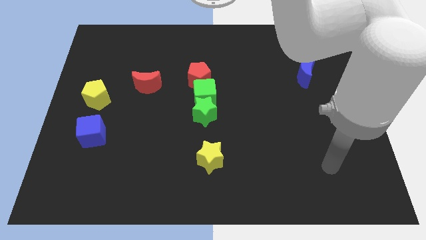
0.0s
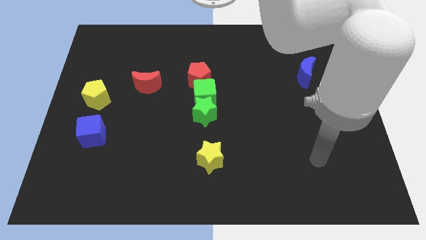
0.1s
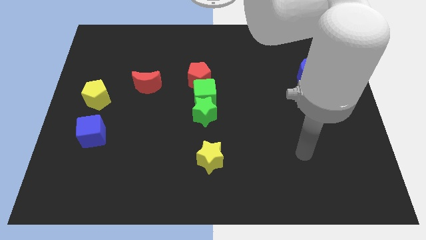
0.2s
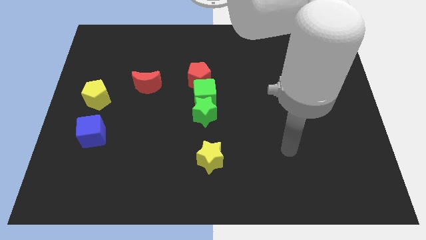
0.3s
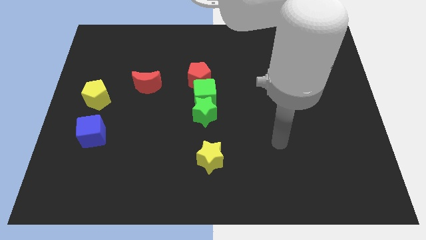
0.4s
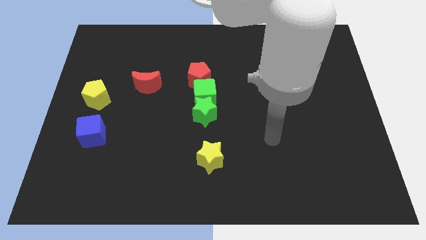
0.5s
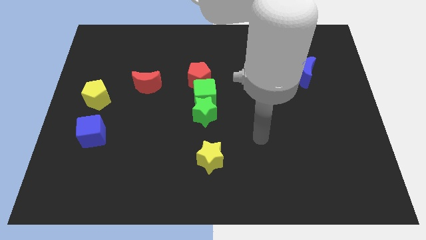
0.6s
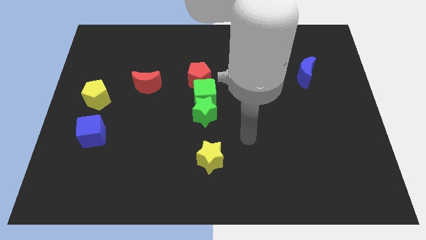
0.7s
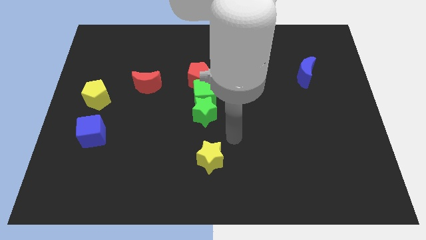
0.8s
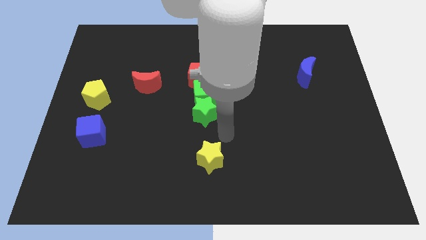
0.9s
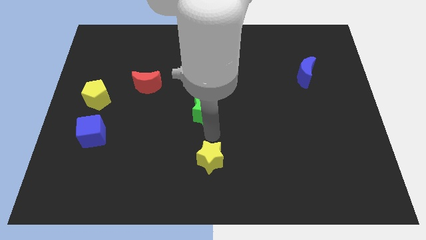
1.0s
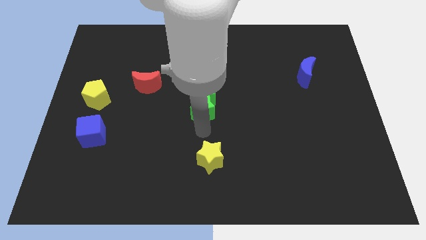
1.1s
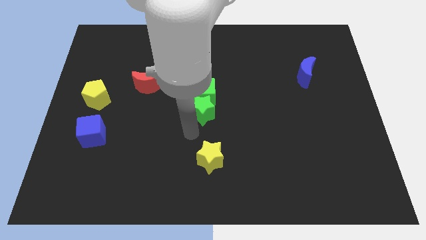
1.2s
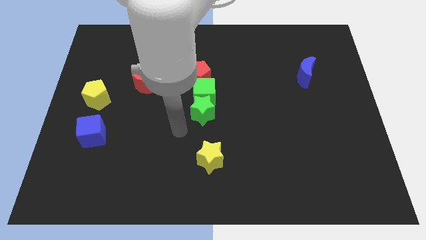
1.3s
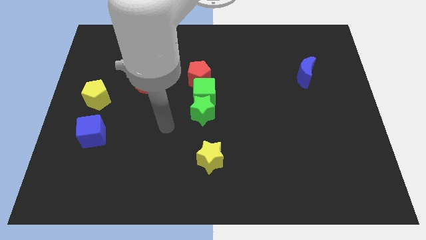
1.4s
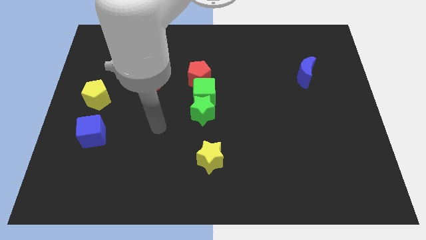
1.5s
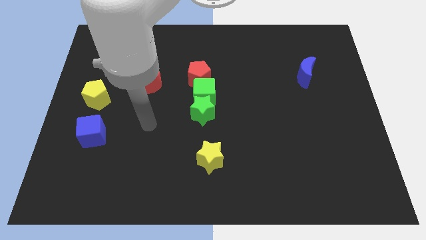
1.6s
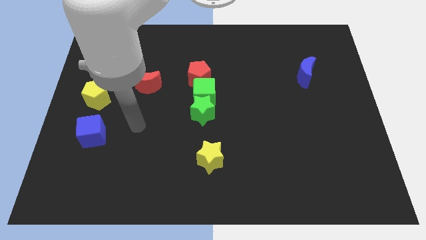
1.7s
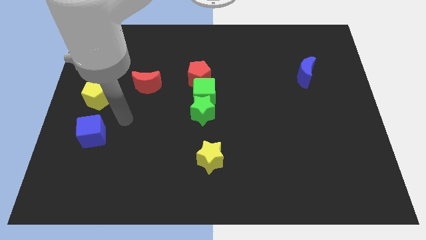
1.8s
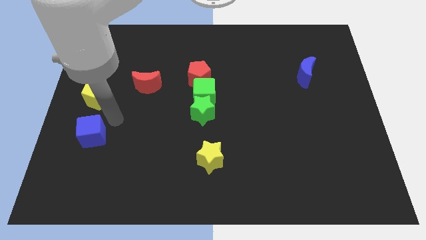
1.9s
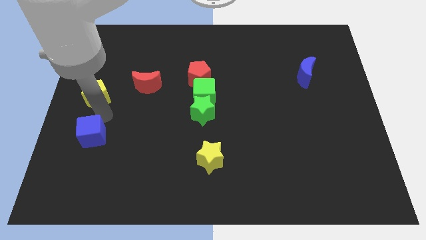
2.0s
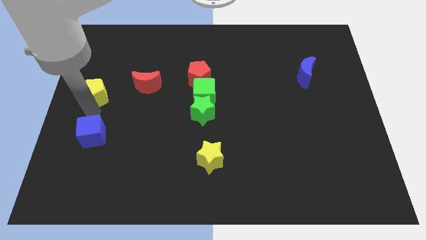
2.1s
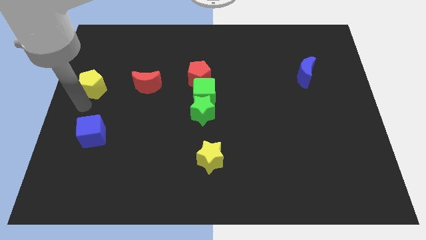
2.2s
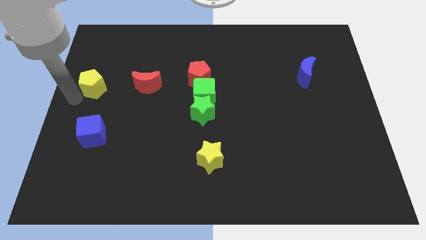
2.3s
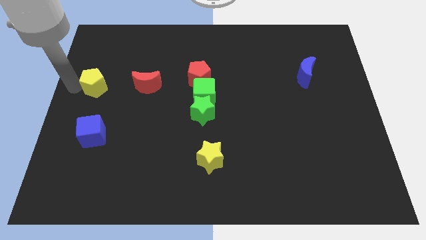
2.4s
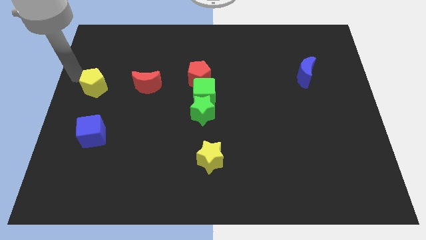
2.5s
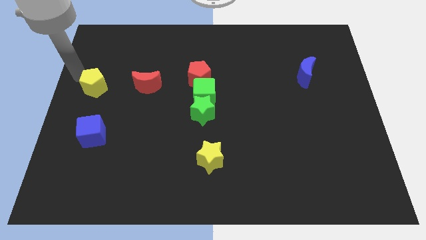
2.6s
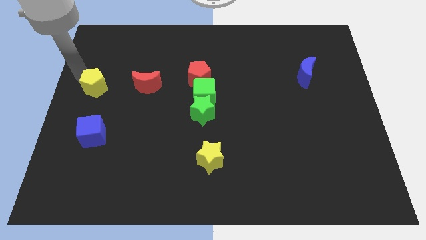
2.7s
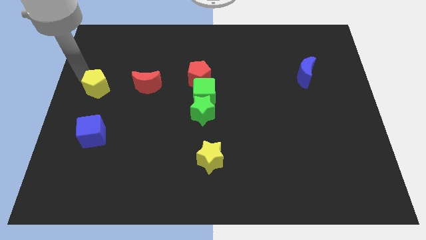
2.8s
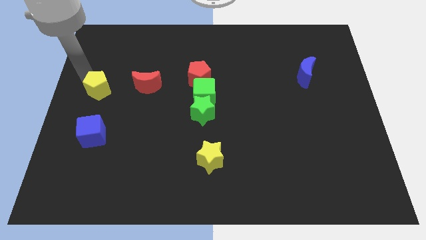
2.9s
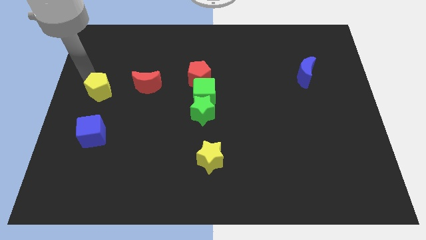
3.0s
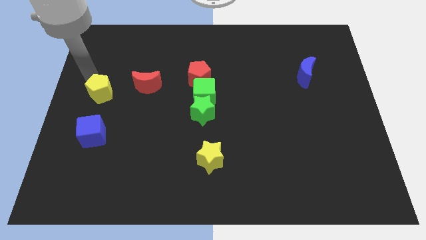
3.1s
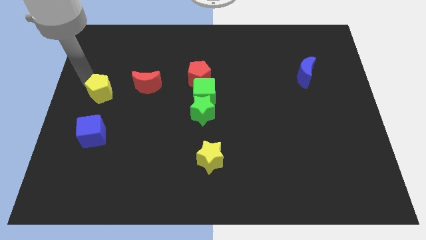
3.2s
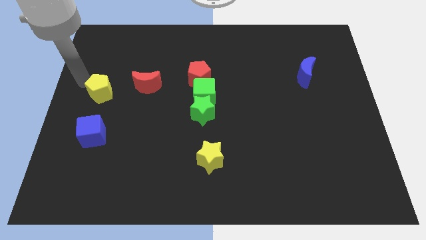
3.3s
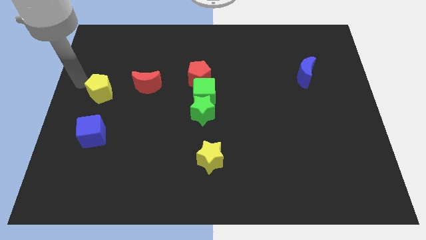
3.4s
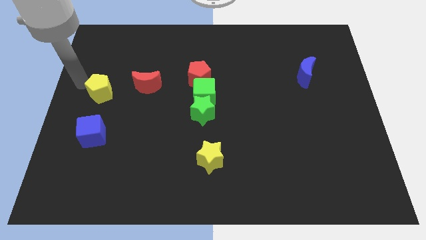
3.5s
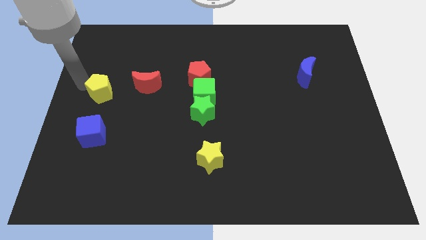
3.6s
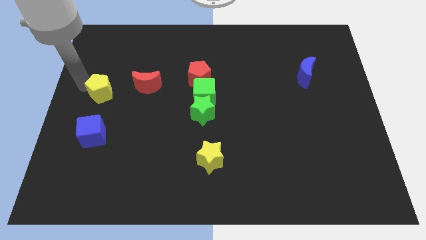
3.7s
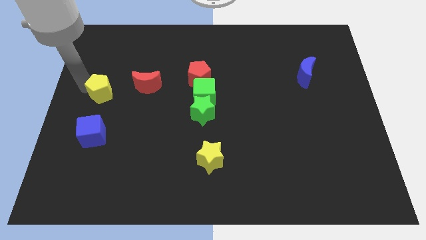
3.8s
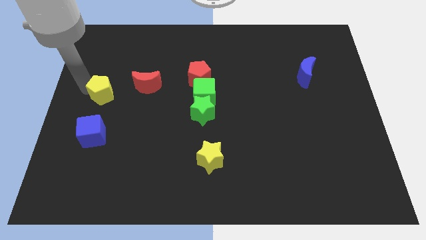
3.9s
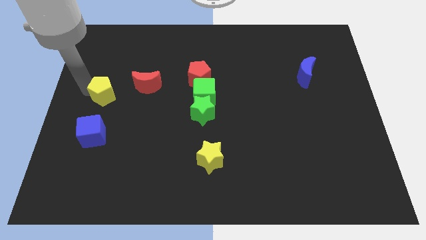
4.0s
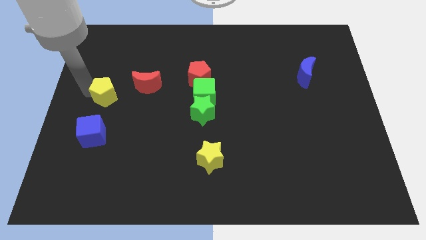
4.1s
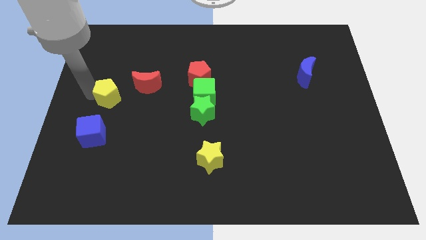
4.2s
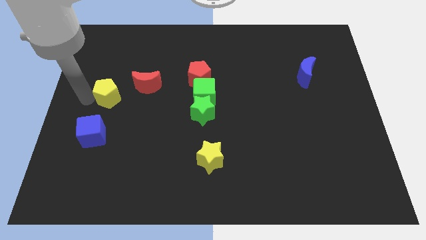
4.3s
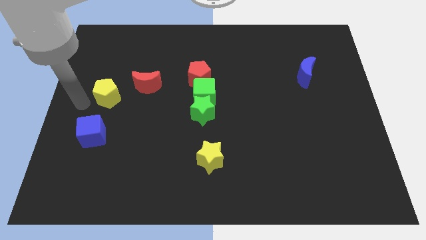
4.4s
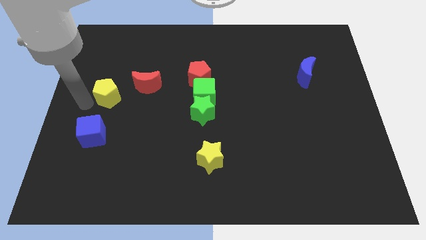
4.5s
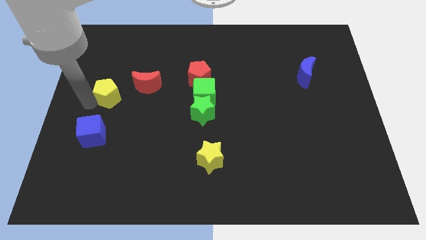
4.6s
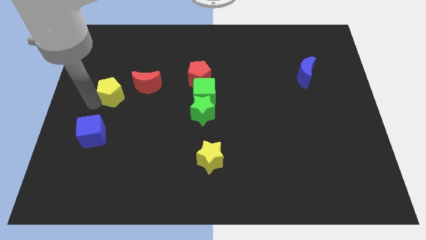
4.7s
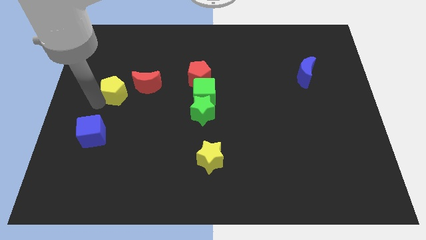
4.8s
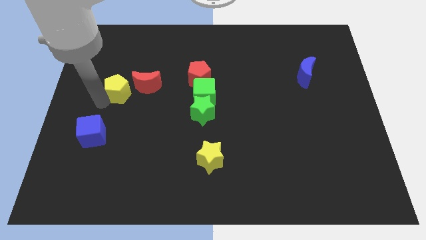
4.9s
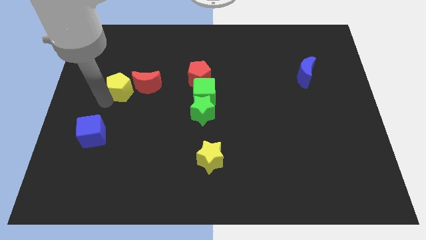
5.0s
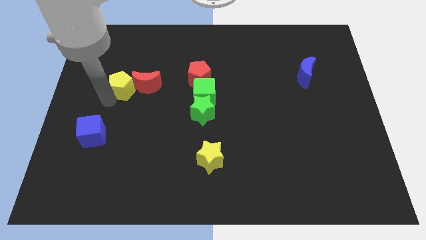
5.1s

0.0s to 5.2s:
put the yellow pentagon towards the red moon

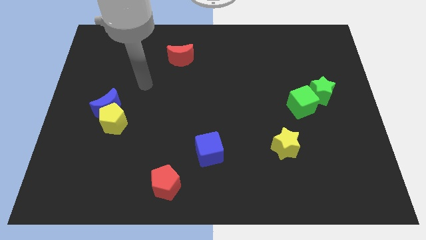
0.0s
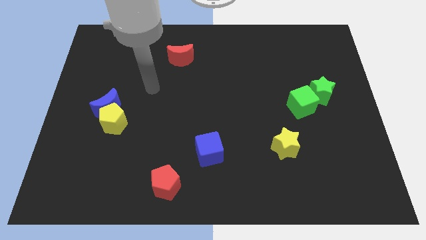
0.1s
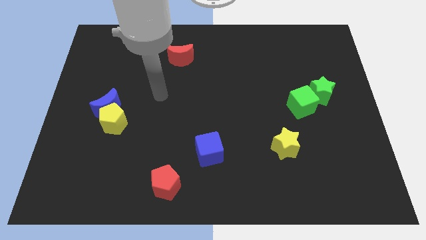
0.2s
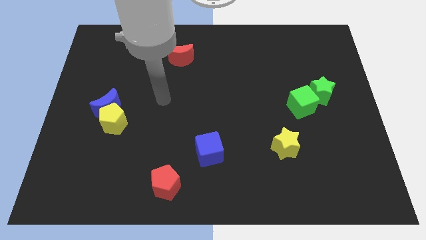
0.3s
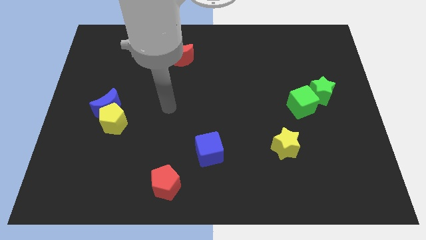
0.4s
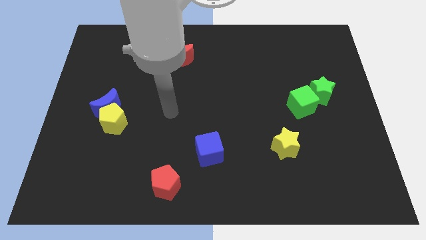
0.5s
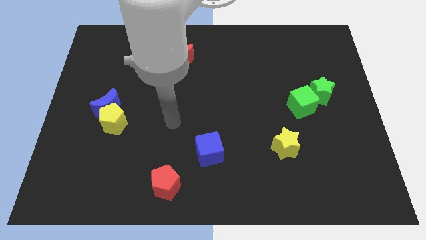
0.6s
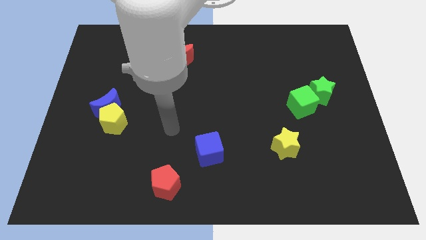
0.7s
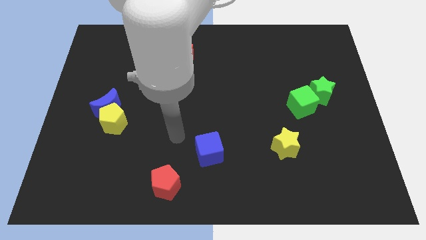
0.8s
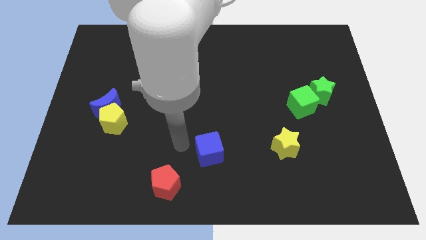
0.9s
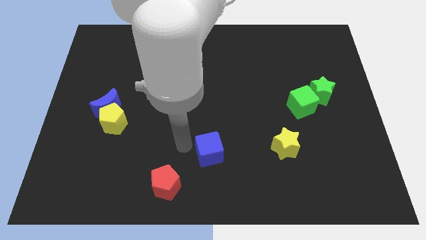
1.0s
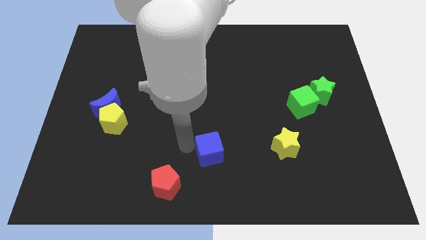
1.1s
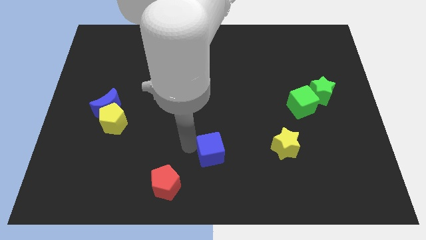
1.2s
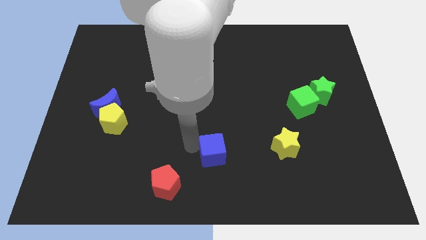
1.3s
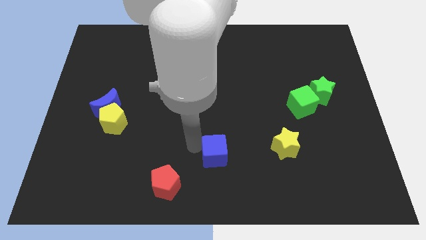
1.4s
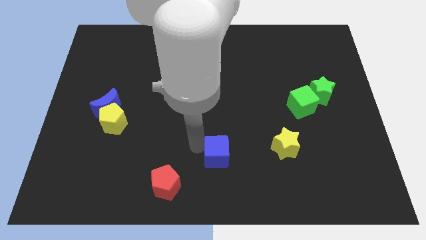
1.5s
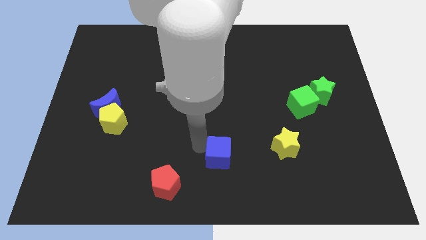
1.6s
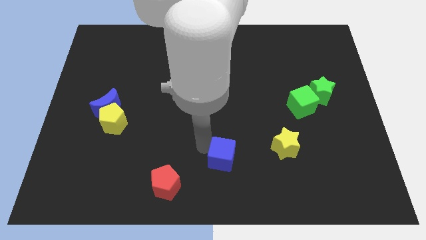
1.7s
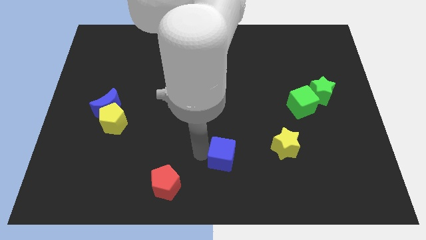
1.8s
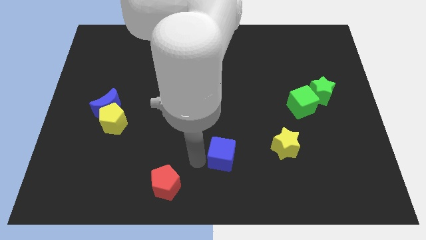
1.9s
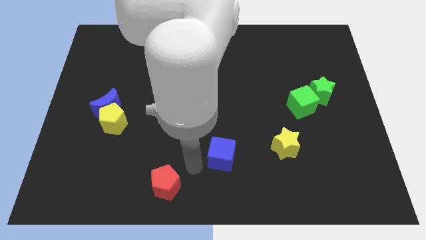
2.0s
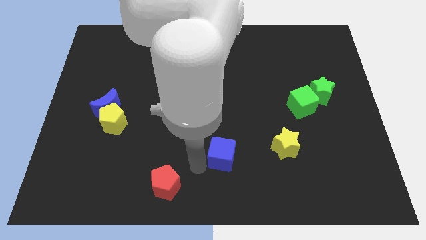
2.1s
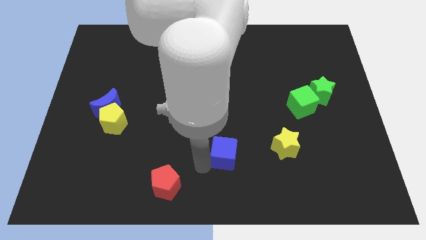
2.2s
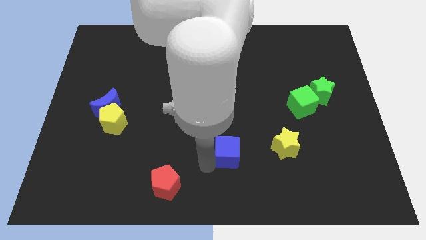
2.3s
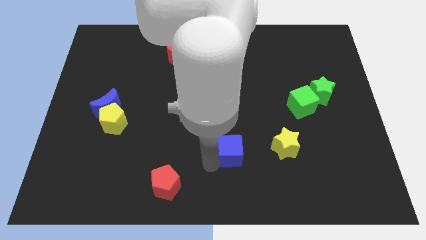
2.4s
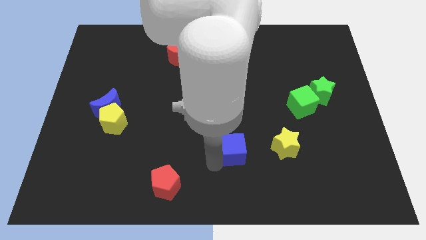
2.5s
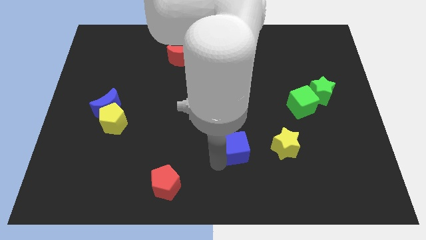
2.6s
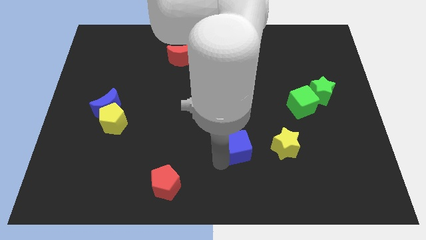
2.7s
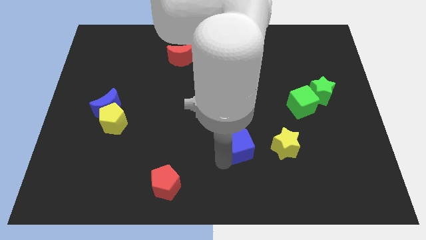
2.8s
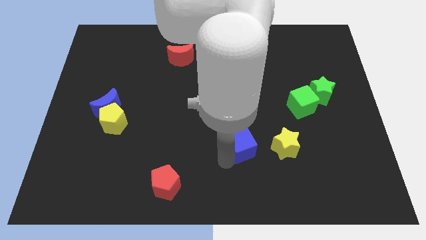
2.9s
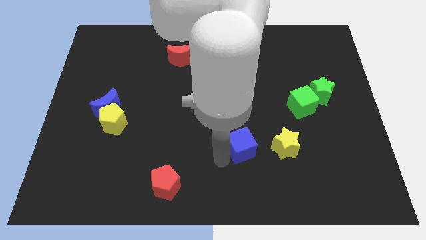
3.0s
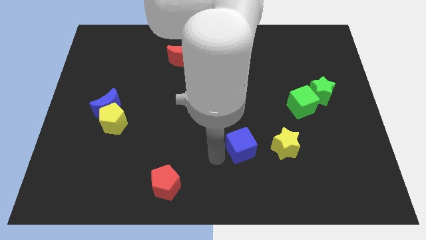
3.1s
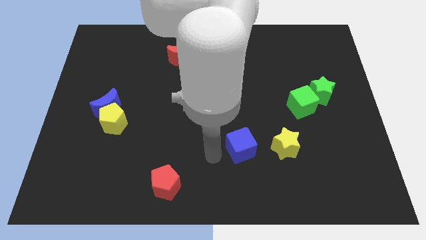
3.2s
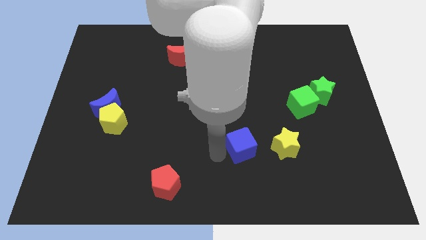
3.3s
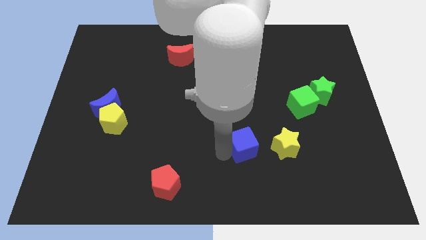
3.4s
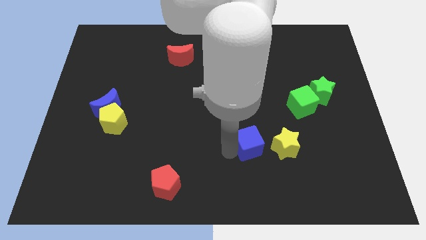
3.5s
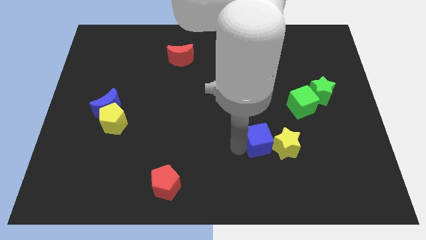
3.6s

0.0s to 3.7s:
put the blue cube close to the yellow star
